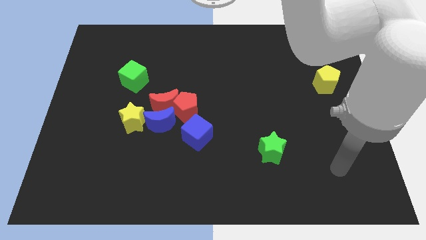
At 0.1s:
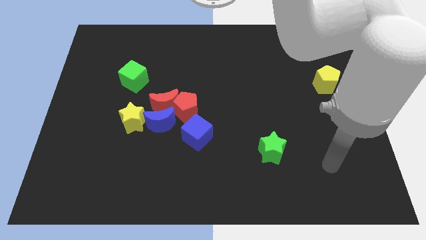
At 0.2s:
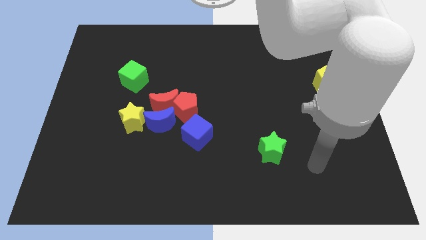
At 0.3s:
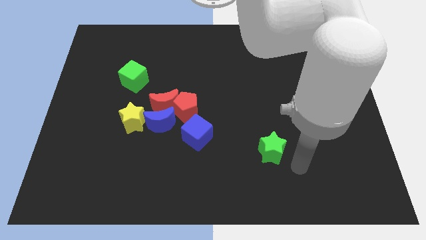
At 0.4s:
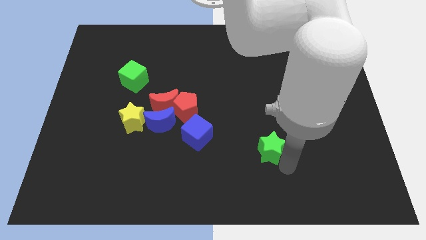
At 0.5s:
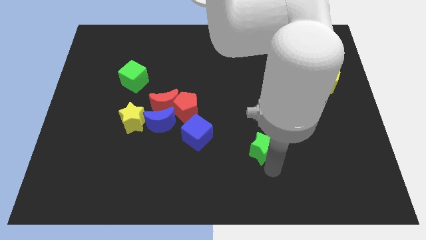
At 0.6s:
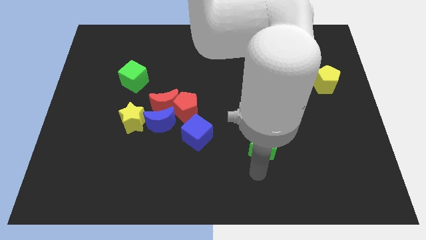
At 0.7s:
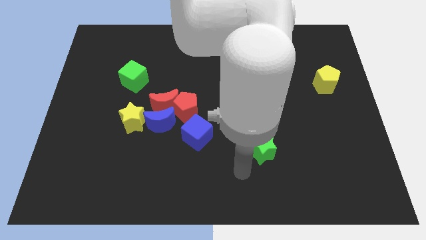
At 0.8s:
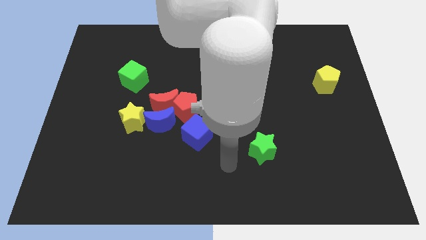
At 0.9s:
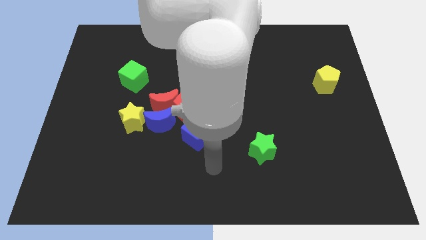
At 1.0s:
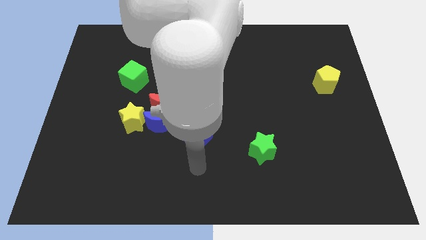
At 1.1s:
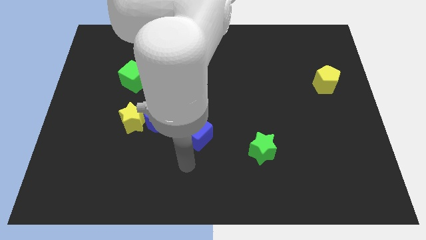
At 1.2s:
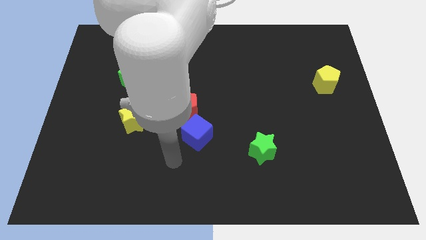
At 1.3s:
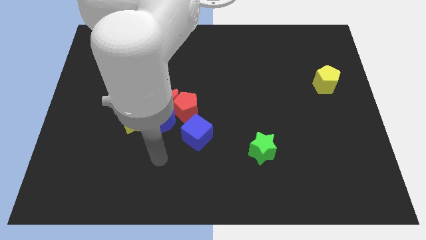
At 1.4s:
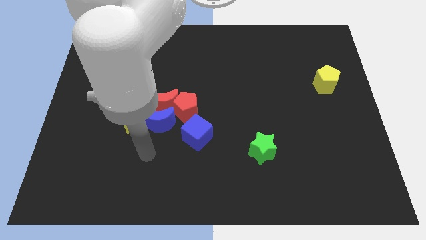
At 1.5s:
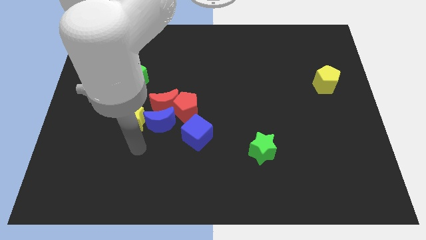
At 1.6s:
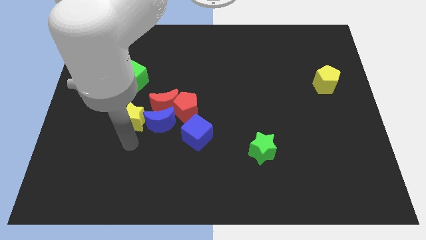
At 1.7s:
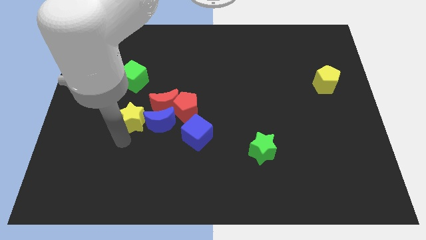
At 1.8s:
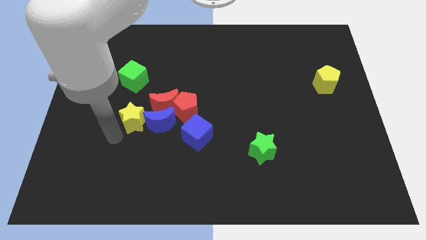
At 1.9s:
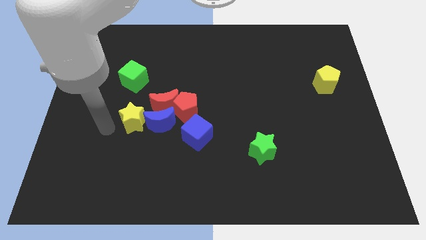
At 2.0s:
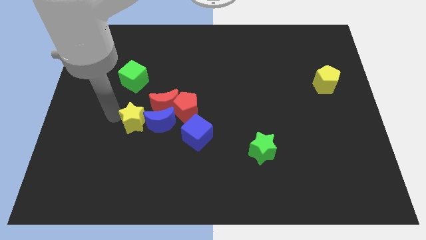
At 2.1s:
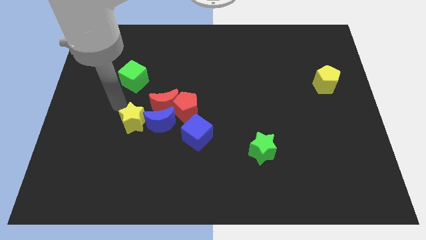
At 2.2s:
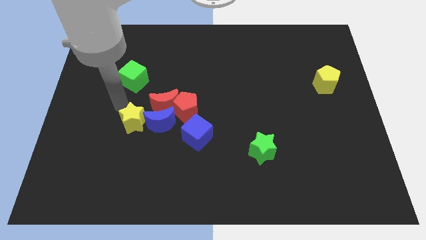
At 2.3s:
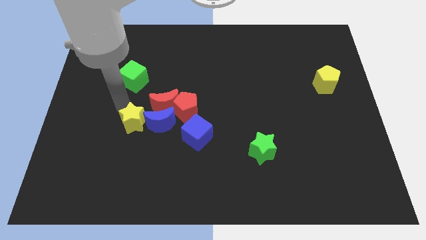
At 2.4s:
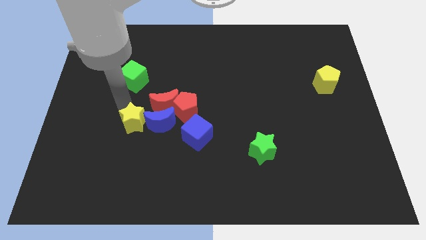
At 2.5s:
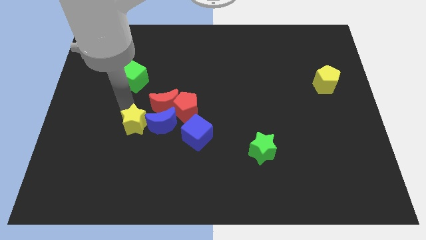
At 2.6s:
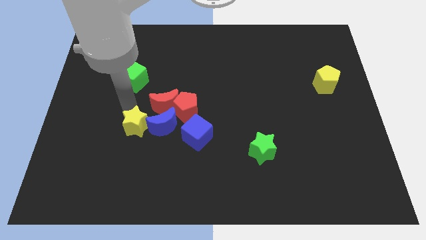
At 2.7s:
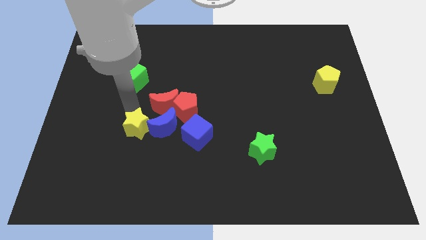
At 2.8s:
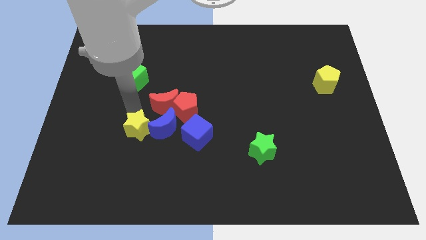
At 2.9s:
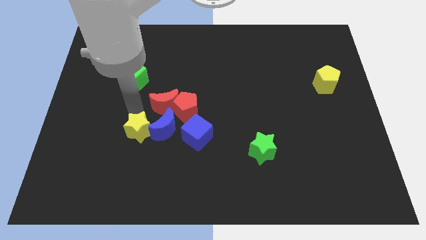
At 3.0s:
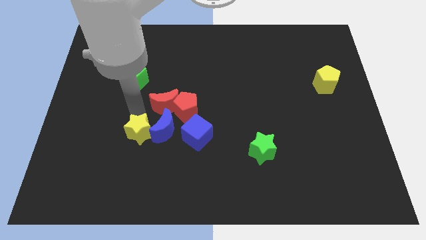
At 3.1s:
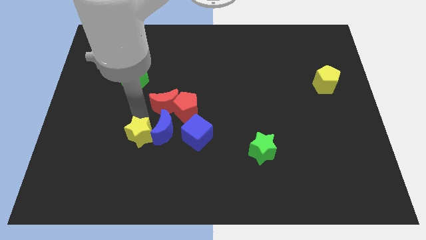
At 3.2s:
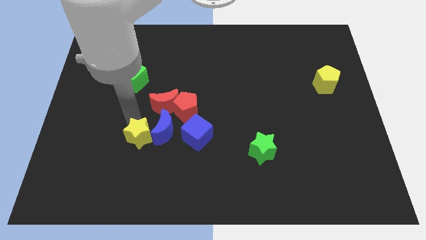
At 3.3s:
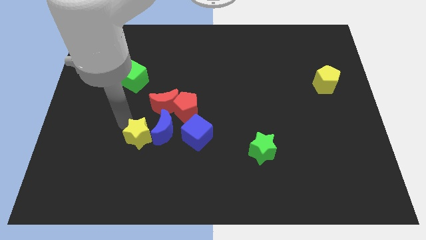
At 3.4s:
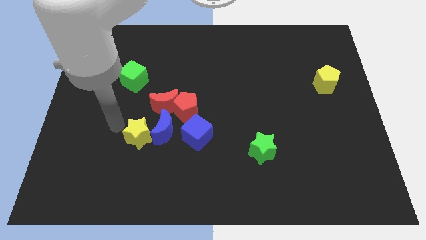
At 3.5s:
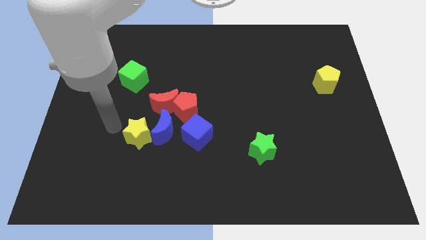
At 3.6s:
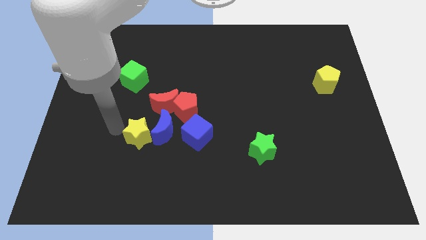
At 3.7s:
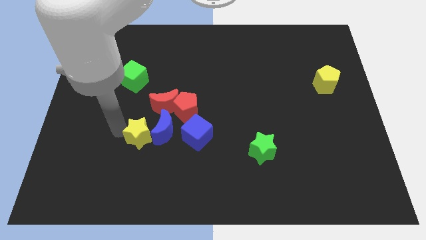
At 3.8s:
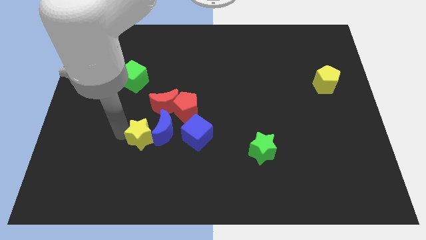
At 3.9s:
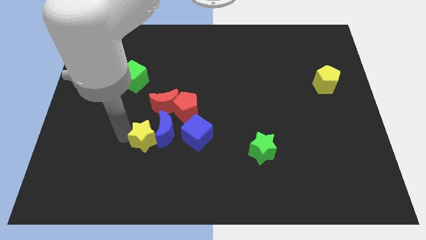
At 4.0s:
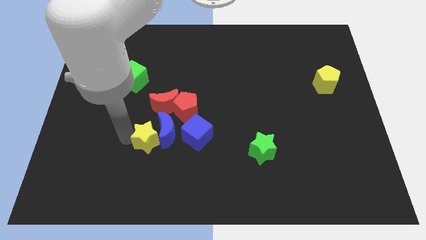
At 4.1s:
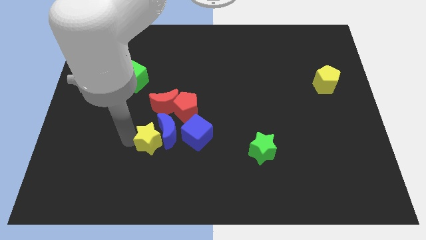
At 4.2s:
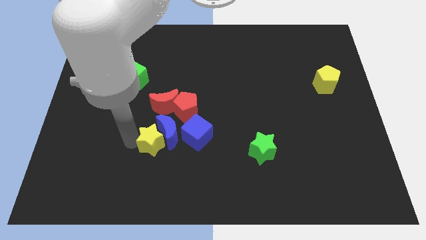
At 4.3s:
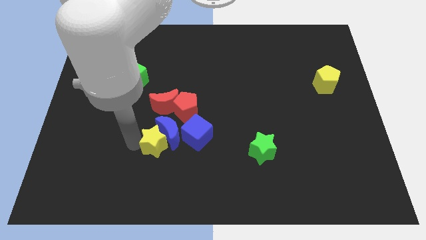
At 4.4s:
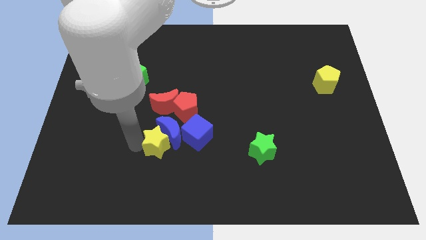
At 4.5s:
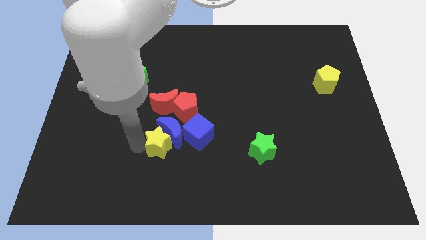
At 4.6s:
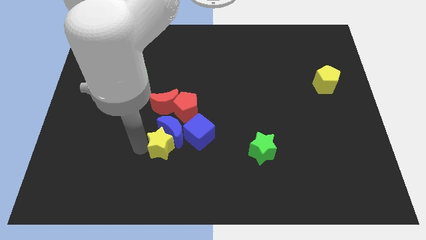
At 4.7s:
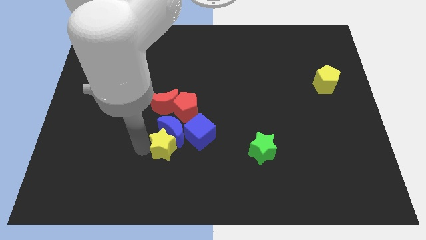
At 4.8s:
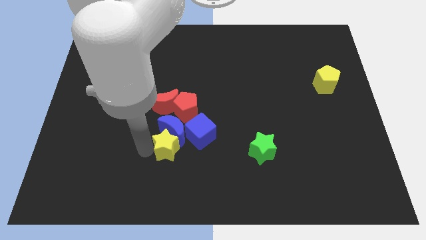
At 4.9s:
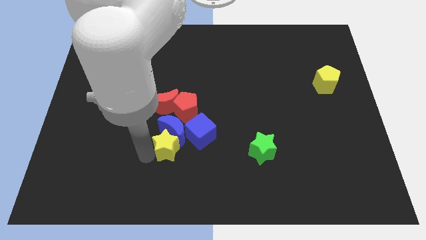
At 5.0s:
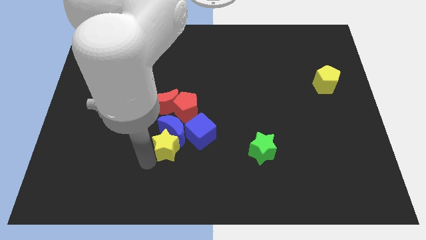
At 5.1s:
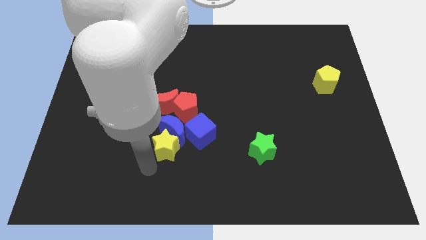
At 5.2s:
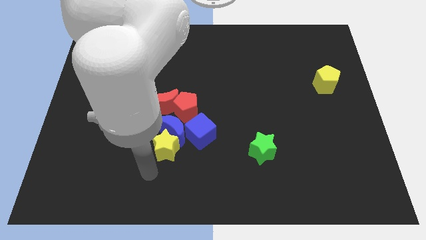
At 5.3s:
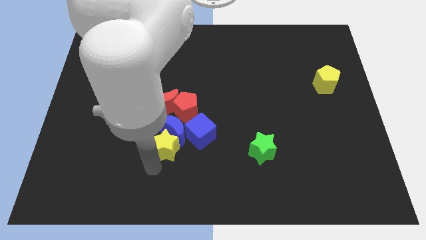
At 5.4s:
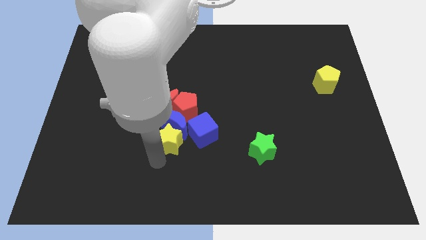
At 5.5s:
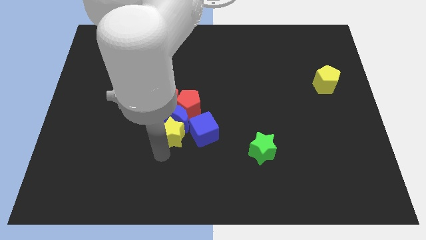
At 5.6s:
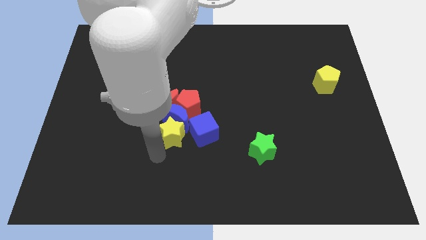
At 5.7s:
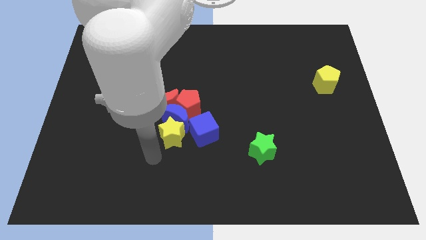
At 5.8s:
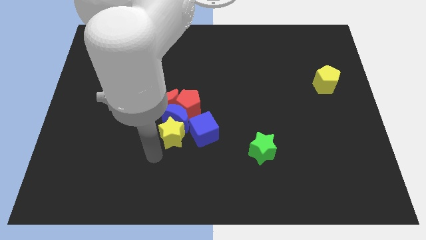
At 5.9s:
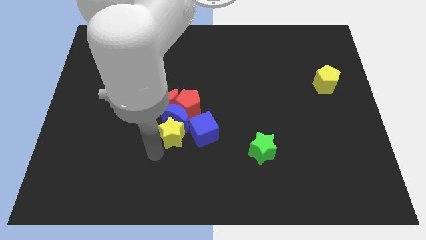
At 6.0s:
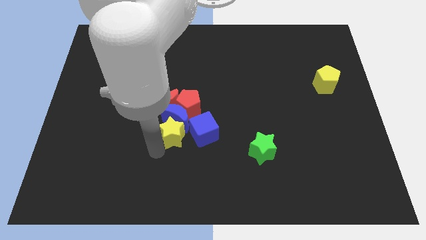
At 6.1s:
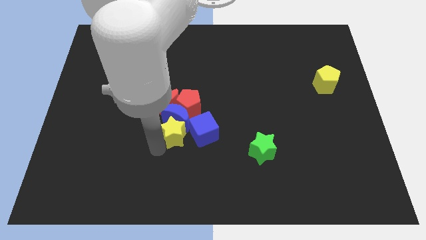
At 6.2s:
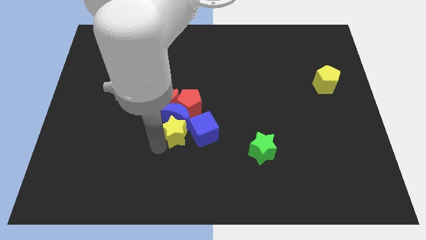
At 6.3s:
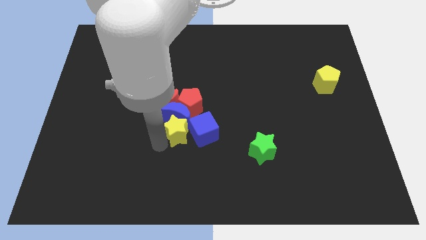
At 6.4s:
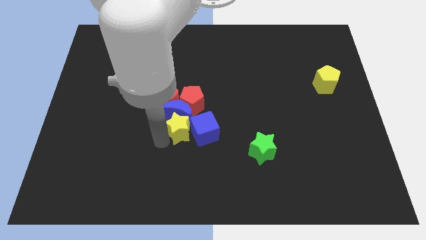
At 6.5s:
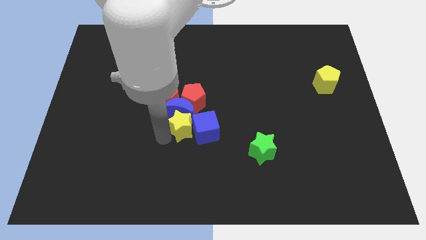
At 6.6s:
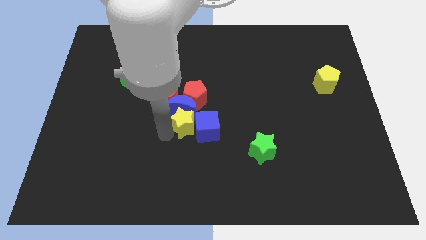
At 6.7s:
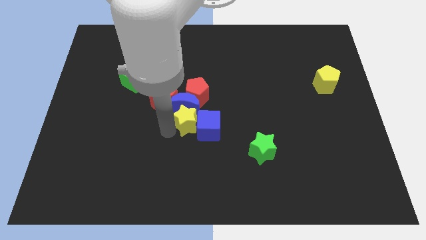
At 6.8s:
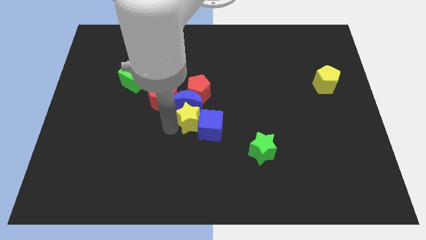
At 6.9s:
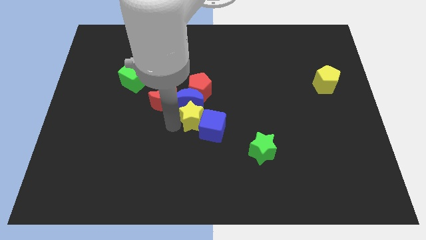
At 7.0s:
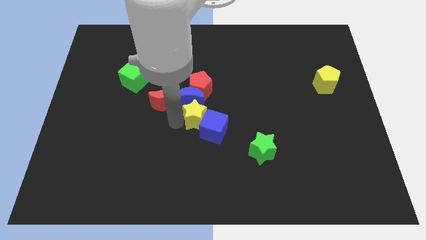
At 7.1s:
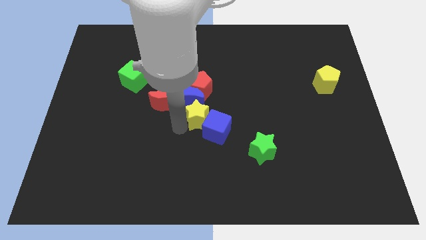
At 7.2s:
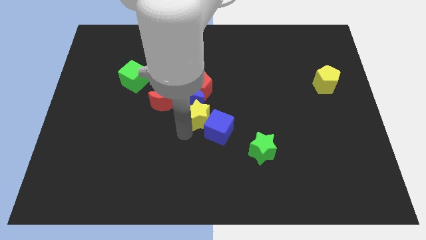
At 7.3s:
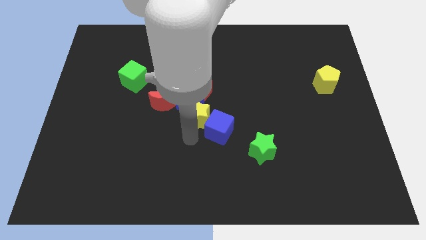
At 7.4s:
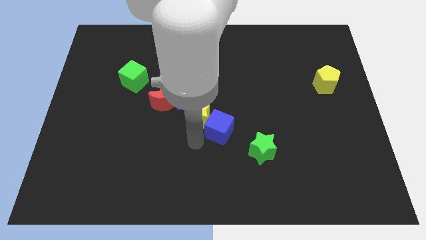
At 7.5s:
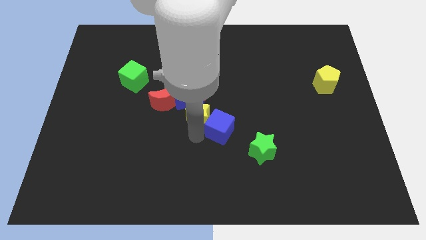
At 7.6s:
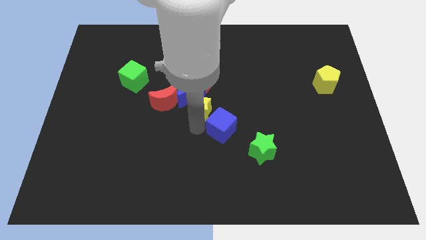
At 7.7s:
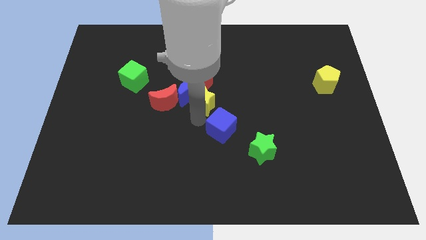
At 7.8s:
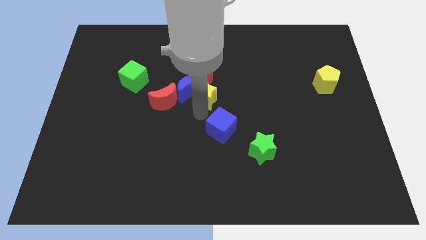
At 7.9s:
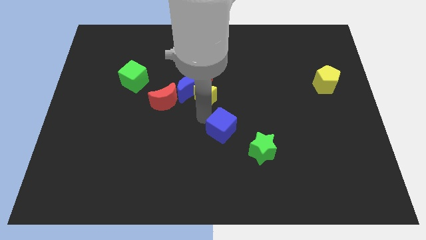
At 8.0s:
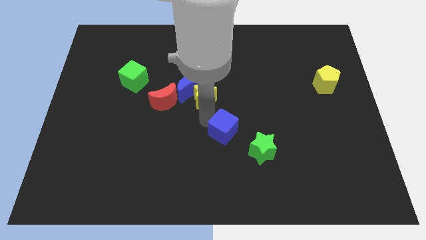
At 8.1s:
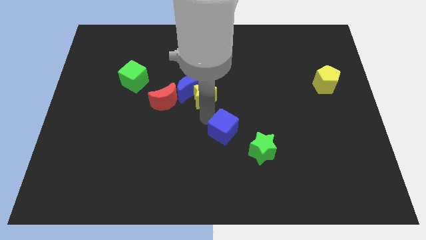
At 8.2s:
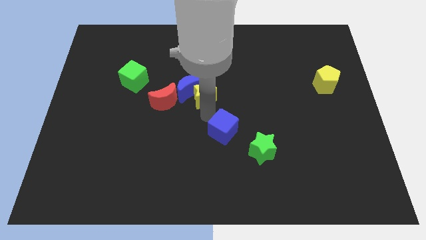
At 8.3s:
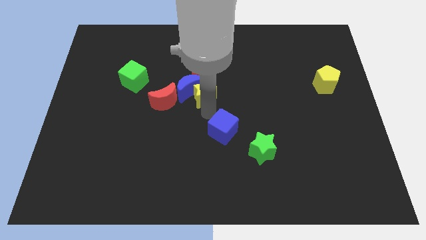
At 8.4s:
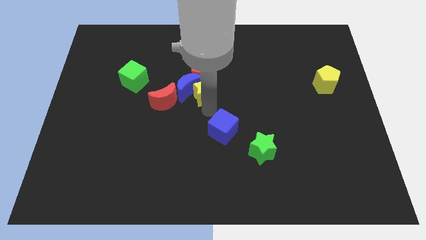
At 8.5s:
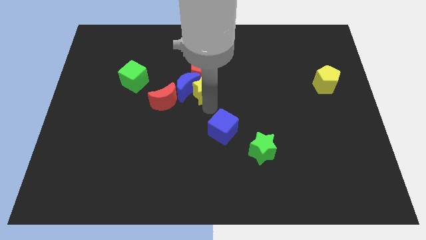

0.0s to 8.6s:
slide the yellow star towards the red pentagon
